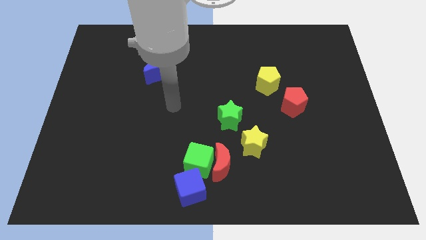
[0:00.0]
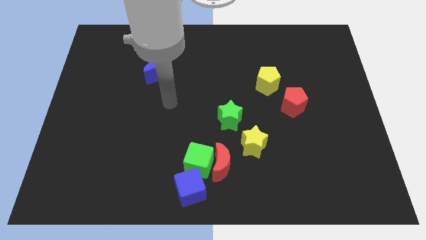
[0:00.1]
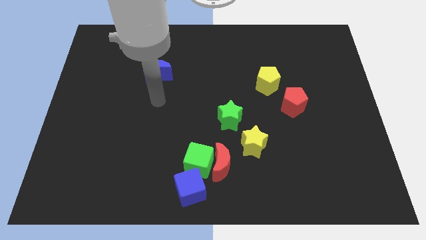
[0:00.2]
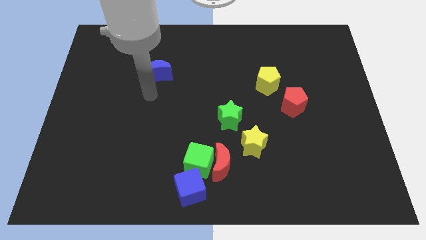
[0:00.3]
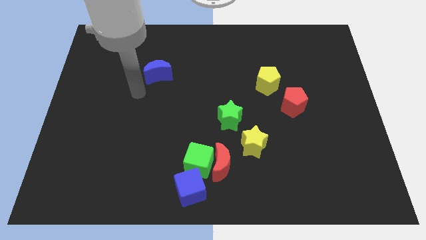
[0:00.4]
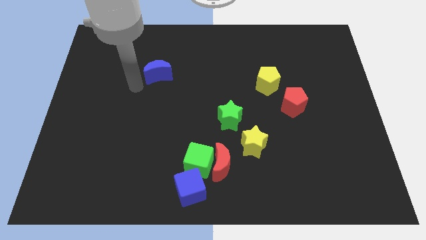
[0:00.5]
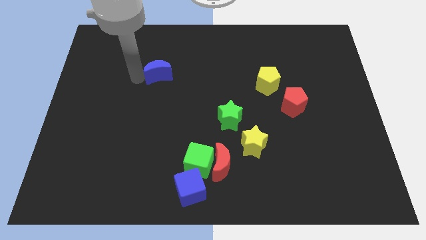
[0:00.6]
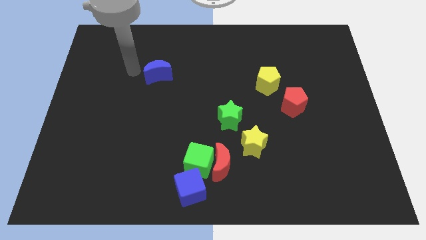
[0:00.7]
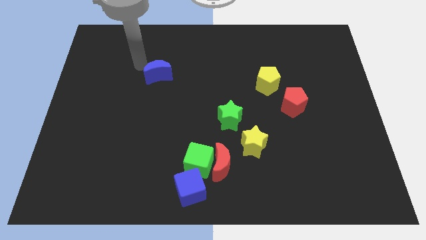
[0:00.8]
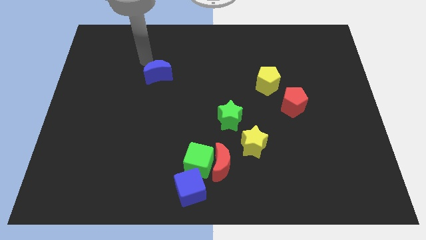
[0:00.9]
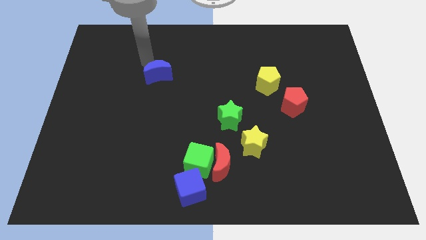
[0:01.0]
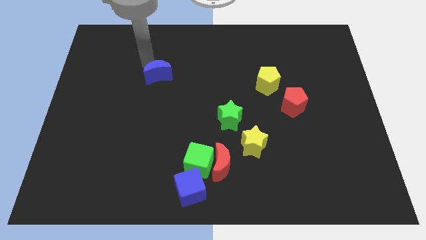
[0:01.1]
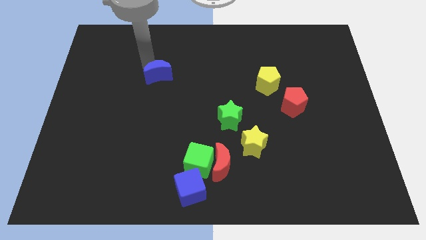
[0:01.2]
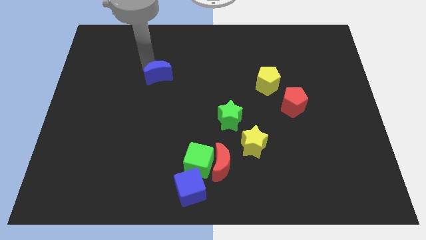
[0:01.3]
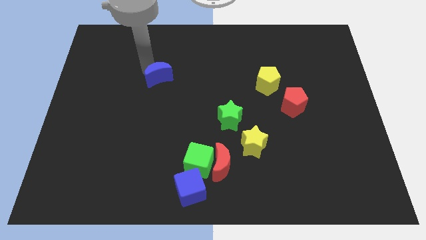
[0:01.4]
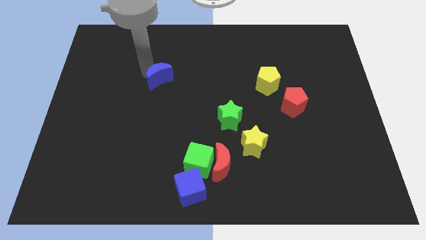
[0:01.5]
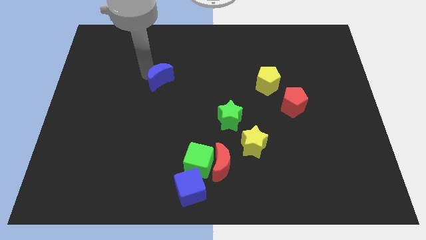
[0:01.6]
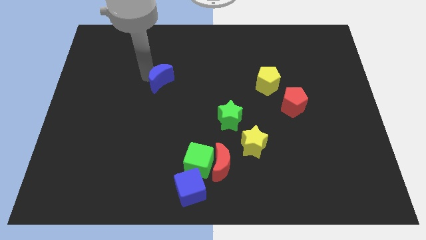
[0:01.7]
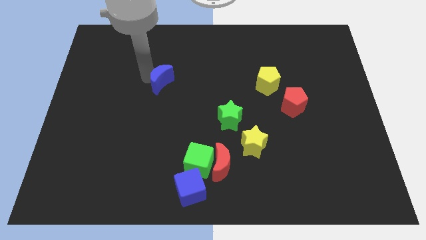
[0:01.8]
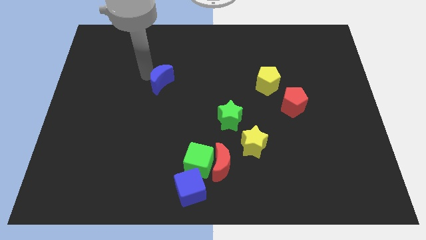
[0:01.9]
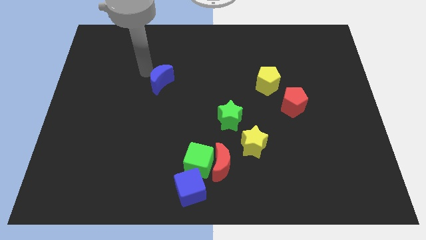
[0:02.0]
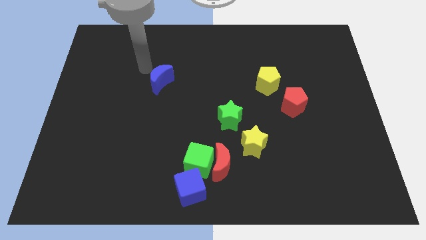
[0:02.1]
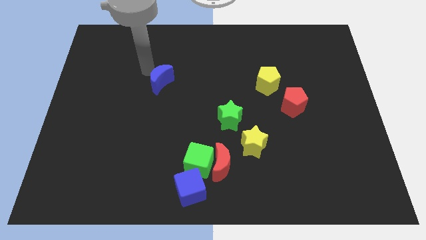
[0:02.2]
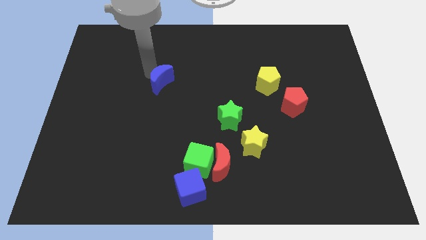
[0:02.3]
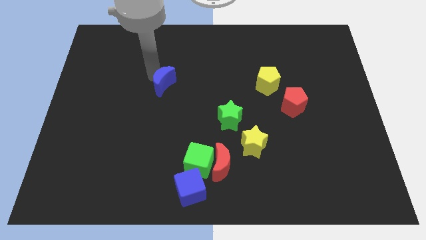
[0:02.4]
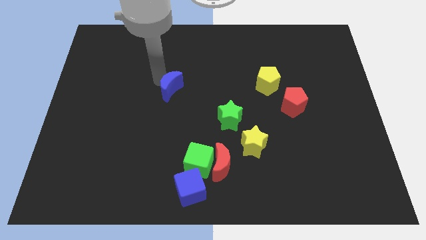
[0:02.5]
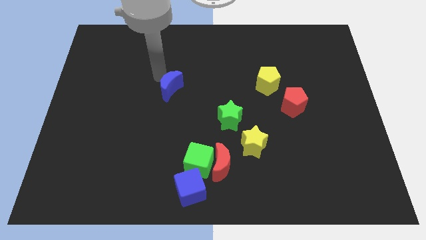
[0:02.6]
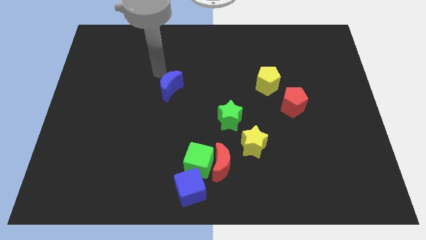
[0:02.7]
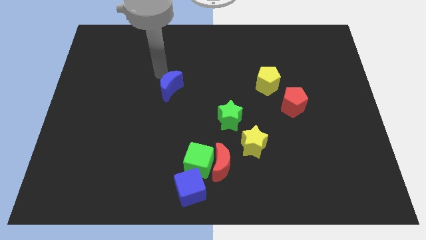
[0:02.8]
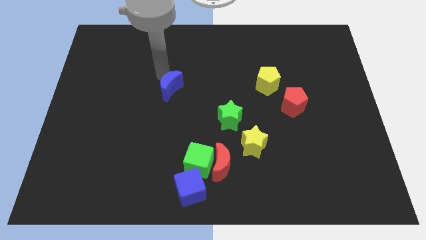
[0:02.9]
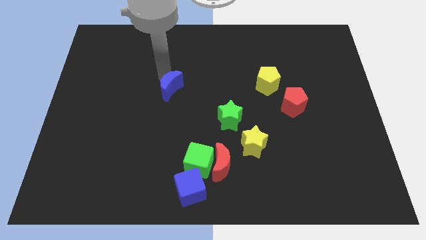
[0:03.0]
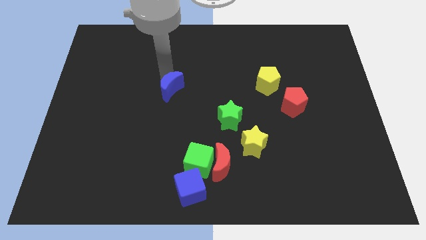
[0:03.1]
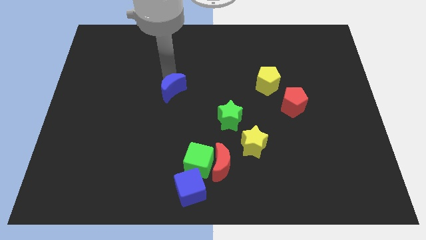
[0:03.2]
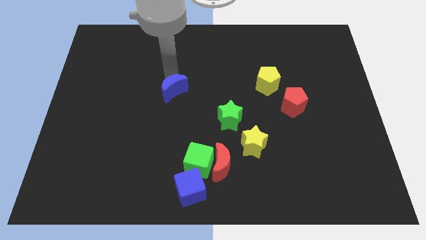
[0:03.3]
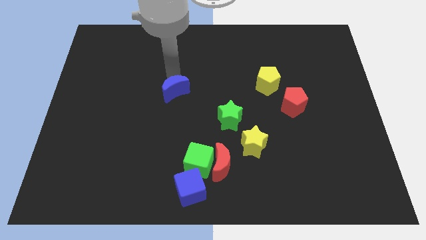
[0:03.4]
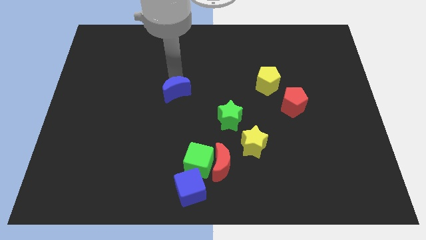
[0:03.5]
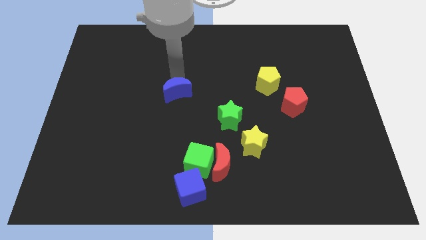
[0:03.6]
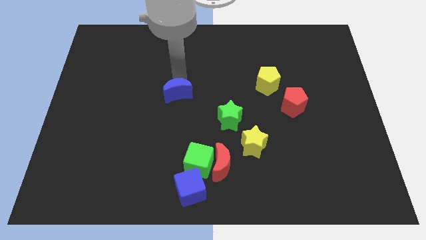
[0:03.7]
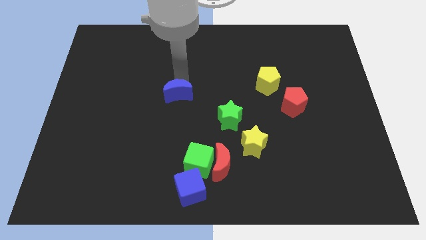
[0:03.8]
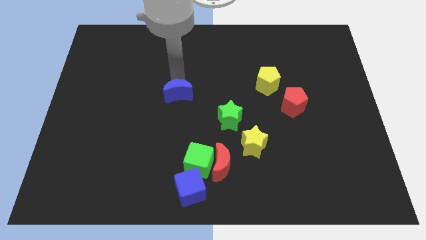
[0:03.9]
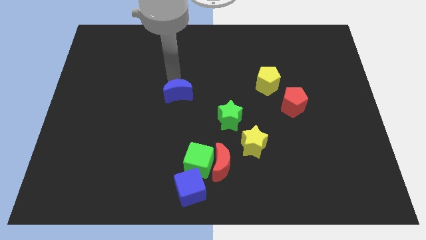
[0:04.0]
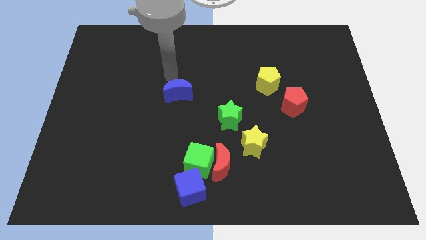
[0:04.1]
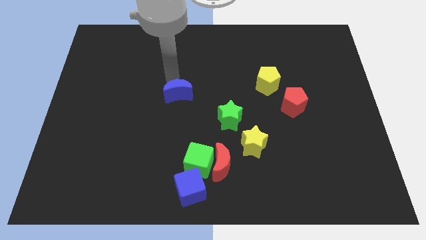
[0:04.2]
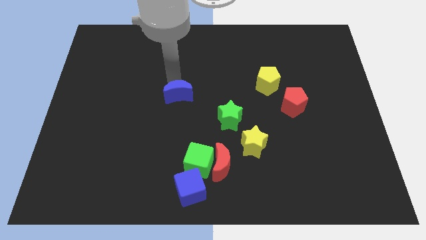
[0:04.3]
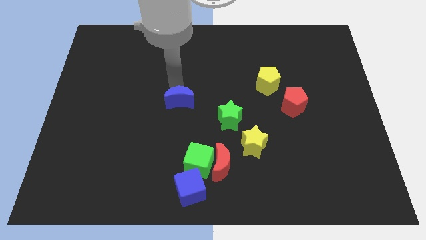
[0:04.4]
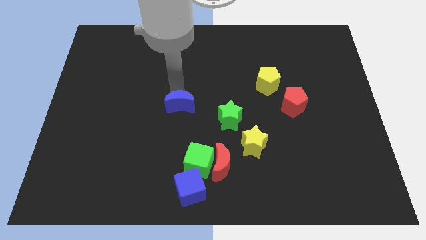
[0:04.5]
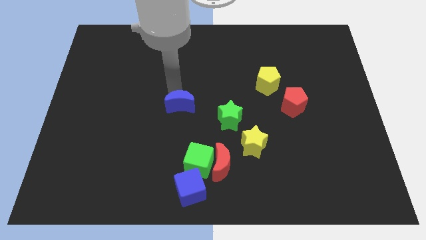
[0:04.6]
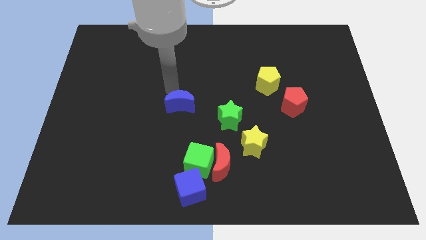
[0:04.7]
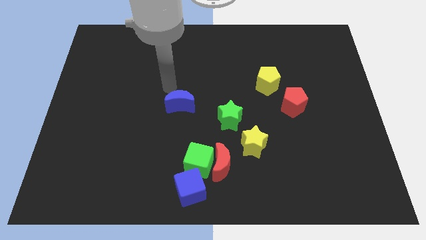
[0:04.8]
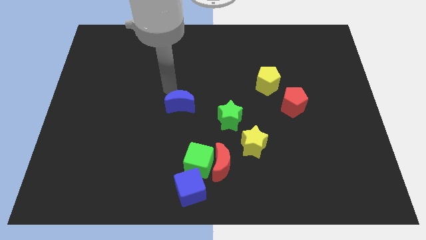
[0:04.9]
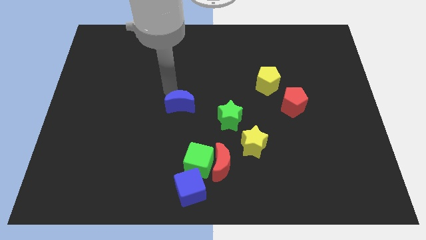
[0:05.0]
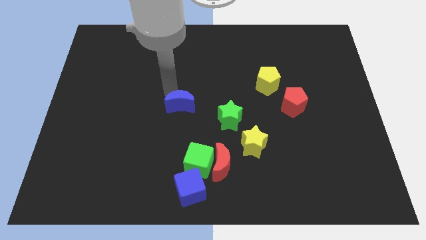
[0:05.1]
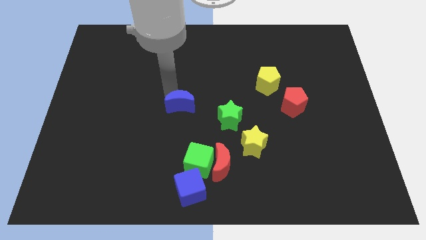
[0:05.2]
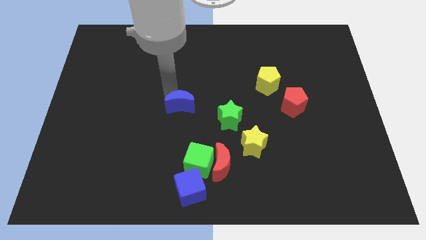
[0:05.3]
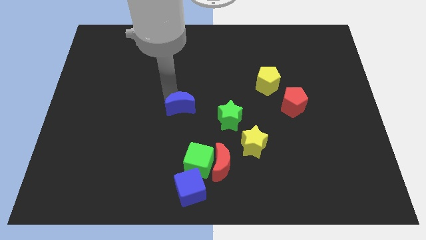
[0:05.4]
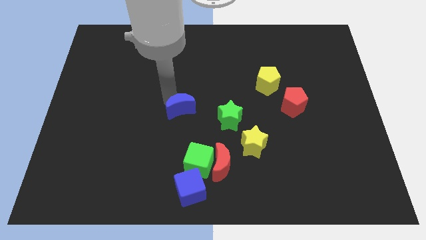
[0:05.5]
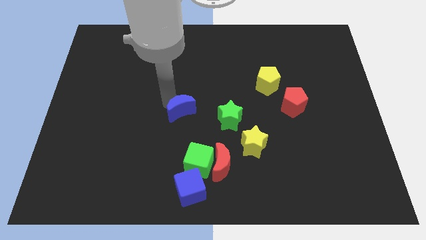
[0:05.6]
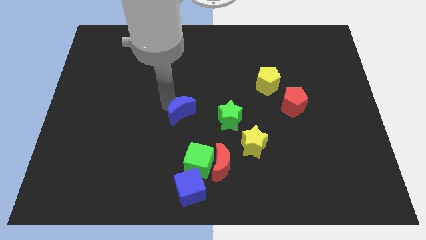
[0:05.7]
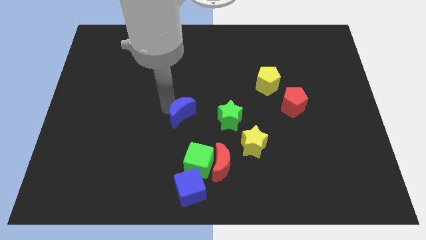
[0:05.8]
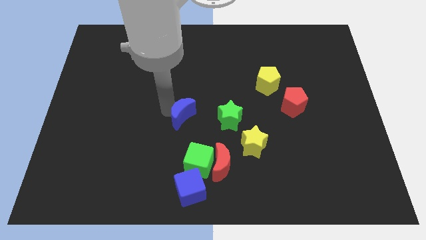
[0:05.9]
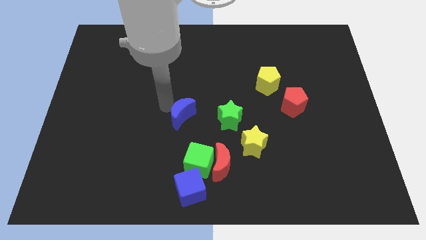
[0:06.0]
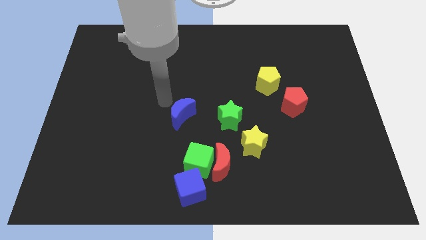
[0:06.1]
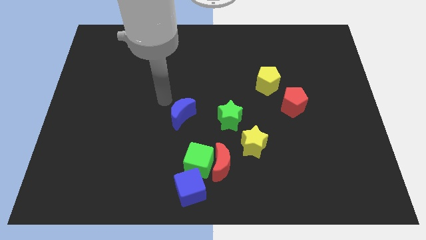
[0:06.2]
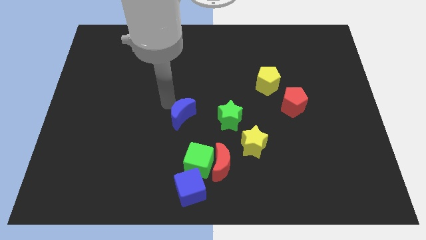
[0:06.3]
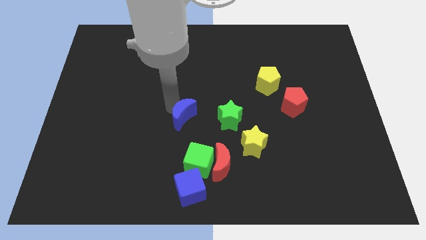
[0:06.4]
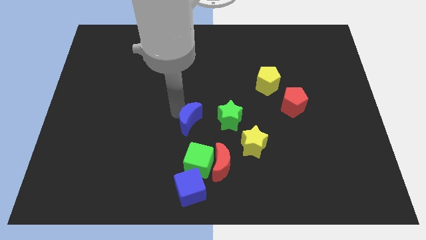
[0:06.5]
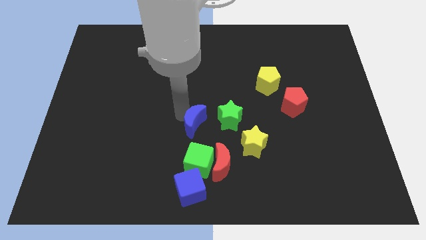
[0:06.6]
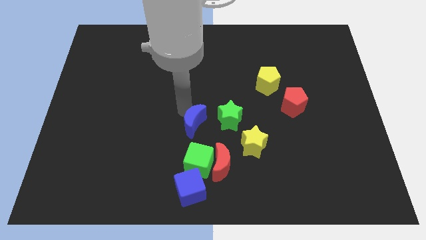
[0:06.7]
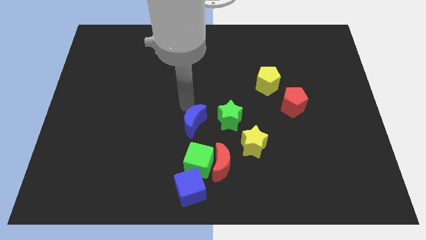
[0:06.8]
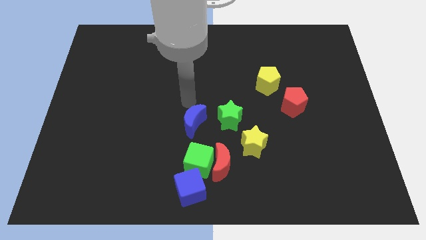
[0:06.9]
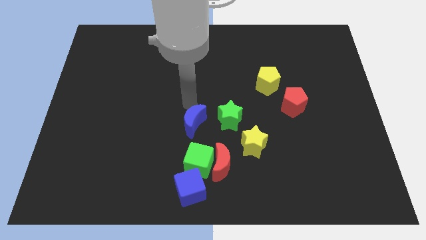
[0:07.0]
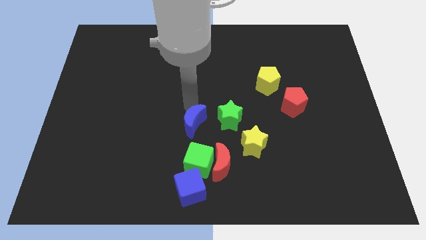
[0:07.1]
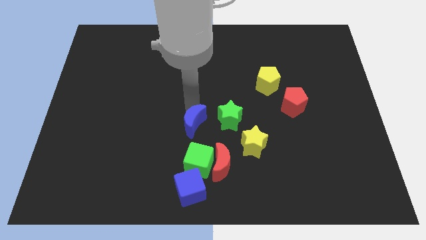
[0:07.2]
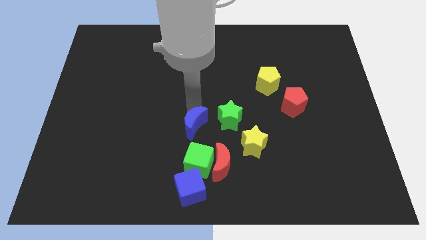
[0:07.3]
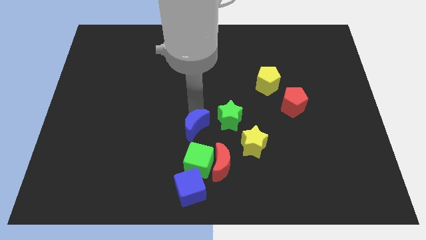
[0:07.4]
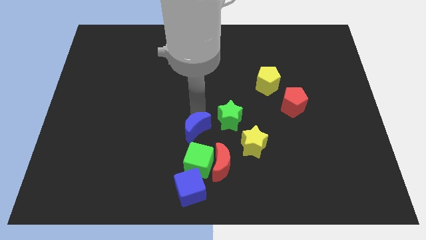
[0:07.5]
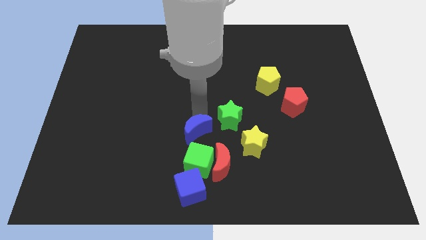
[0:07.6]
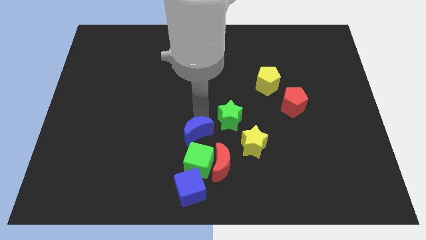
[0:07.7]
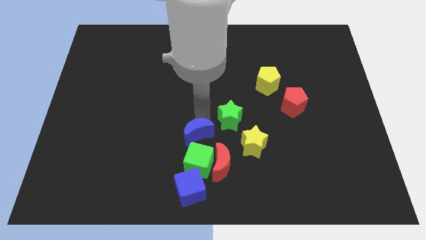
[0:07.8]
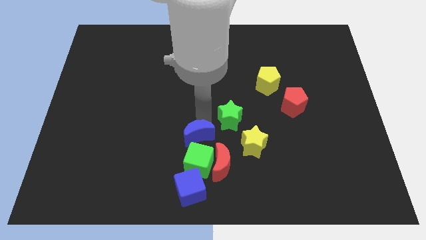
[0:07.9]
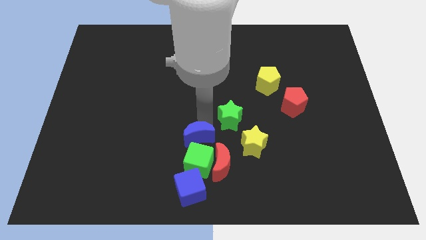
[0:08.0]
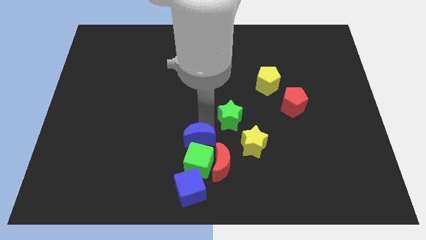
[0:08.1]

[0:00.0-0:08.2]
put the blue moon next to the green cube
